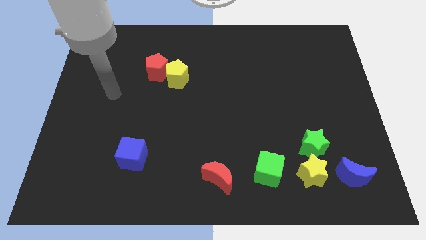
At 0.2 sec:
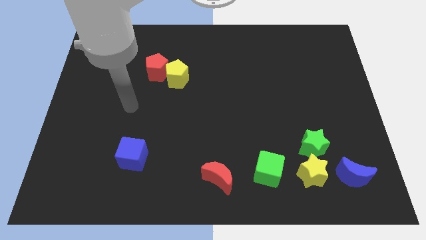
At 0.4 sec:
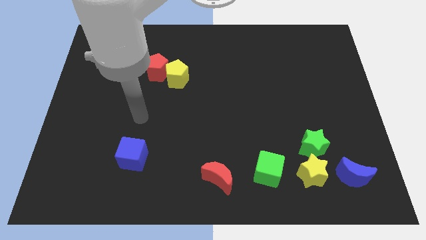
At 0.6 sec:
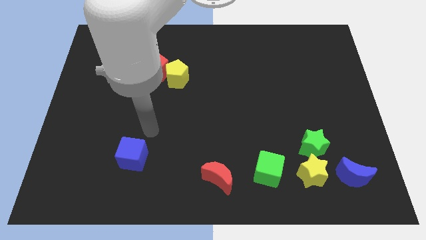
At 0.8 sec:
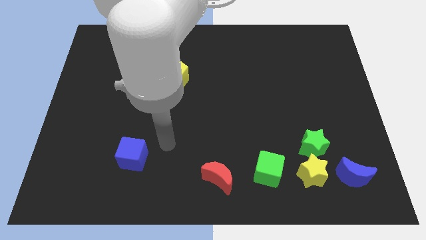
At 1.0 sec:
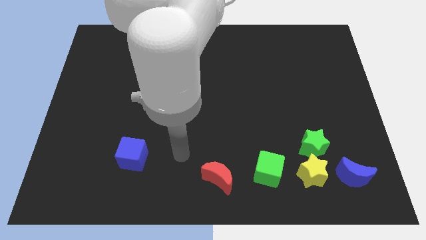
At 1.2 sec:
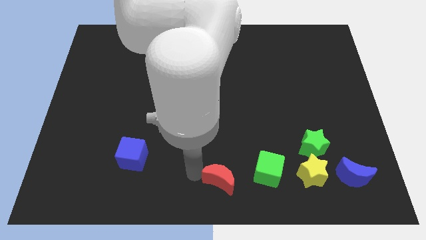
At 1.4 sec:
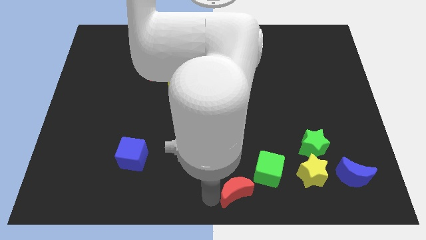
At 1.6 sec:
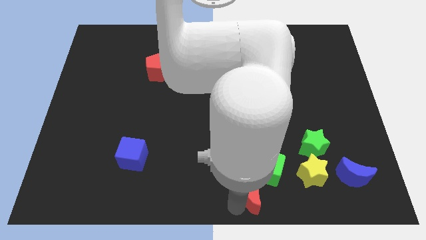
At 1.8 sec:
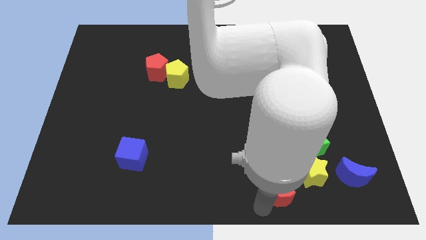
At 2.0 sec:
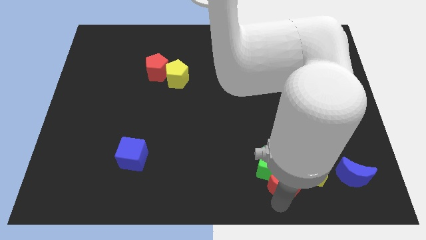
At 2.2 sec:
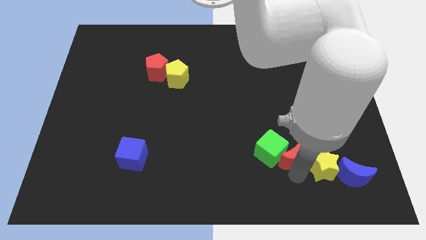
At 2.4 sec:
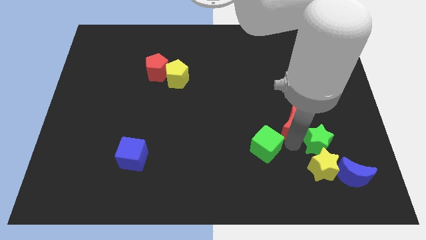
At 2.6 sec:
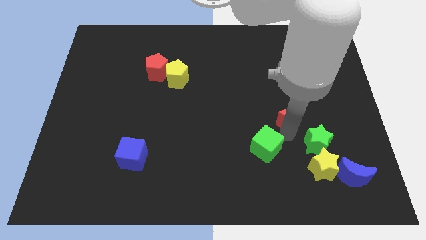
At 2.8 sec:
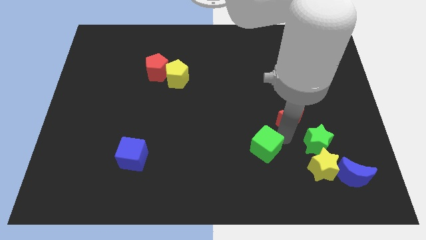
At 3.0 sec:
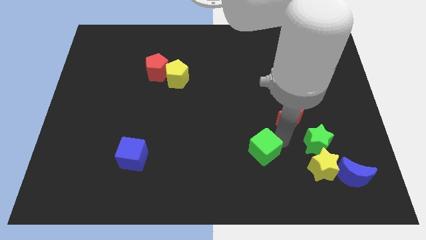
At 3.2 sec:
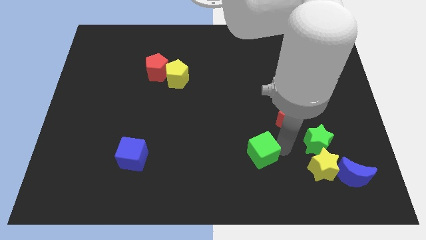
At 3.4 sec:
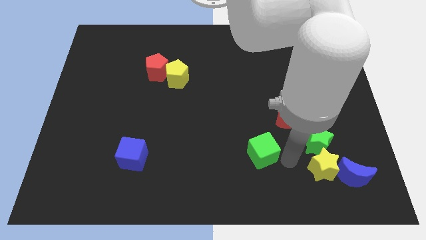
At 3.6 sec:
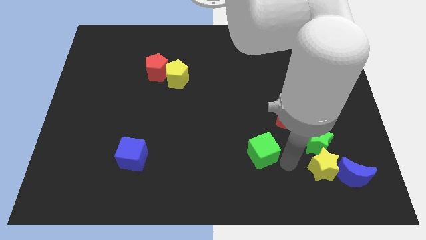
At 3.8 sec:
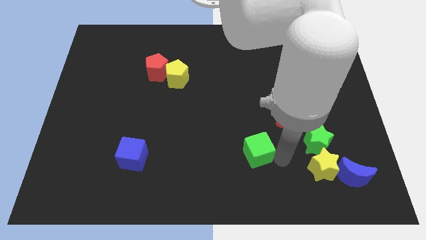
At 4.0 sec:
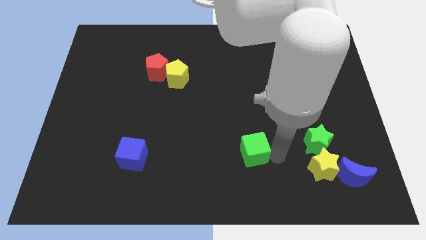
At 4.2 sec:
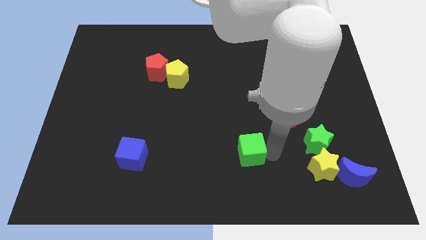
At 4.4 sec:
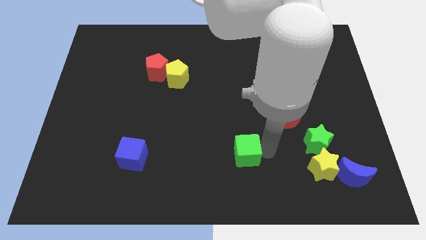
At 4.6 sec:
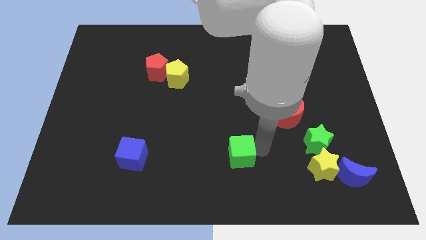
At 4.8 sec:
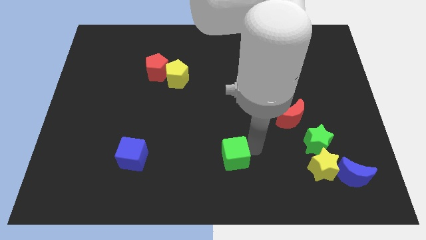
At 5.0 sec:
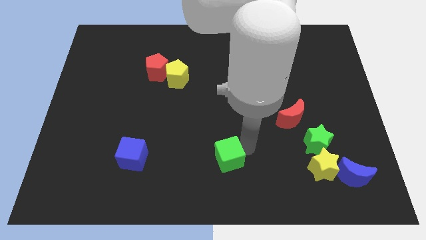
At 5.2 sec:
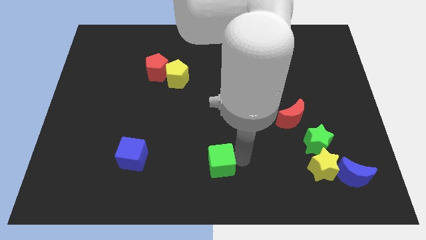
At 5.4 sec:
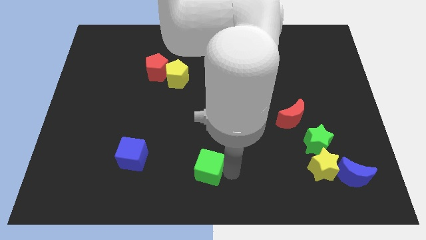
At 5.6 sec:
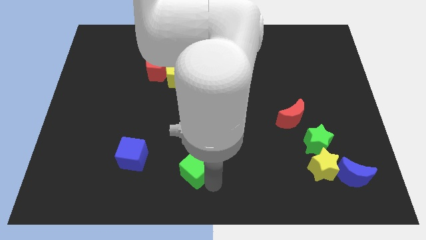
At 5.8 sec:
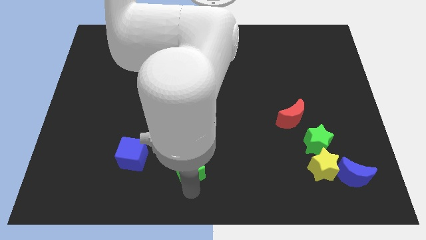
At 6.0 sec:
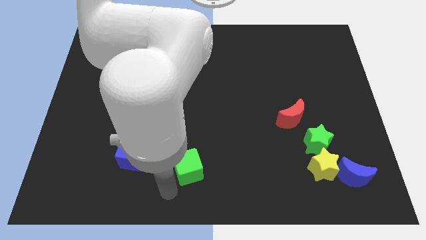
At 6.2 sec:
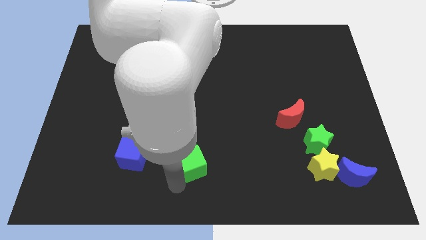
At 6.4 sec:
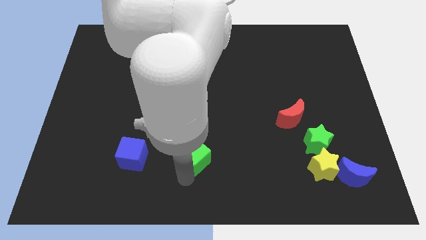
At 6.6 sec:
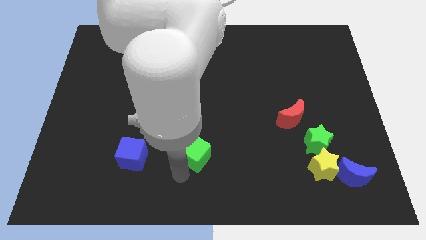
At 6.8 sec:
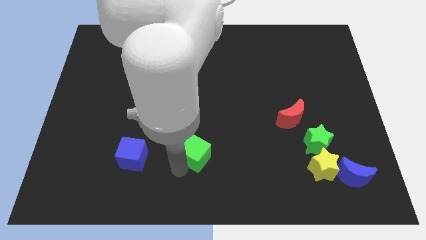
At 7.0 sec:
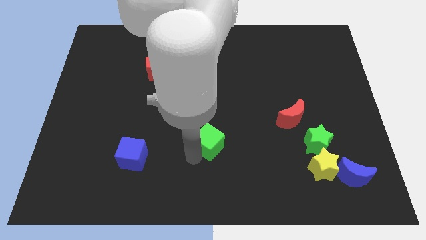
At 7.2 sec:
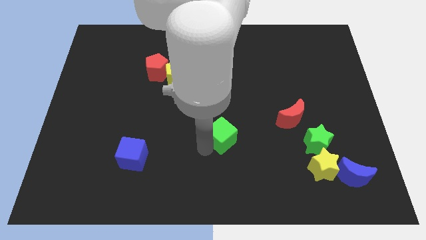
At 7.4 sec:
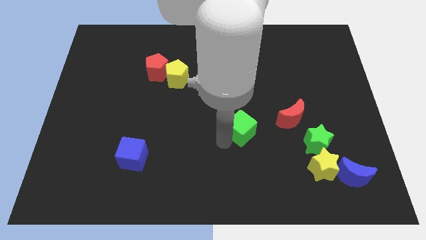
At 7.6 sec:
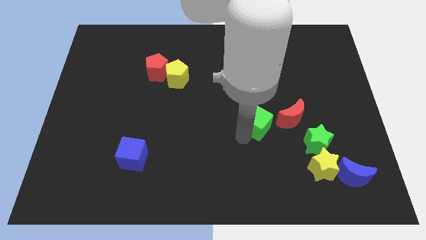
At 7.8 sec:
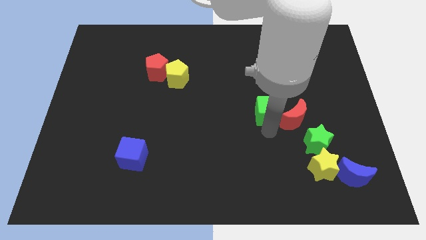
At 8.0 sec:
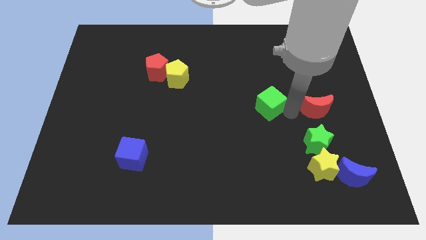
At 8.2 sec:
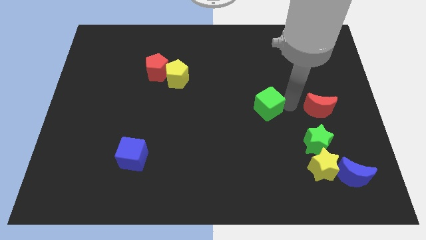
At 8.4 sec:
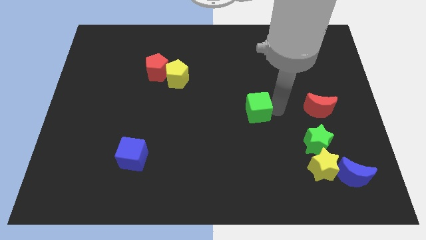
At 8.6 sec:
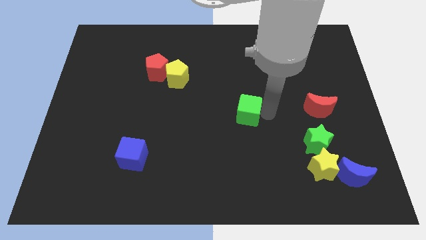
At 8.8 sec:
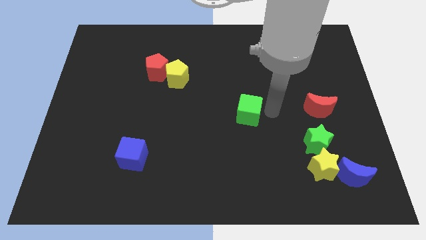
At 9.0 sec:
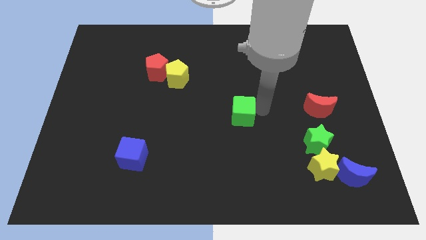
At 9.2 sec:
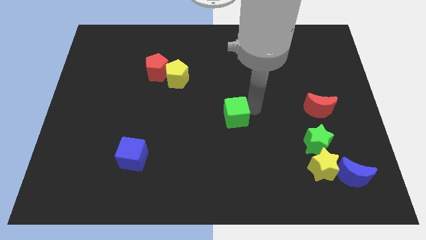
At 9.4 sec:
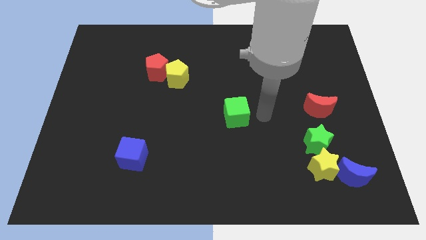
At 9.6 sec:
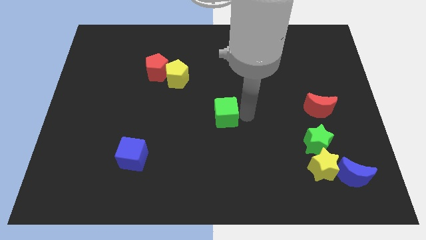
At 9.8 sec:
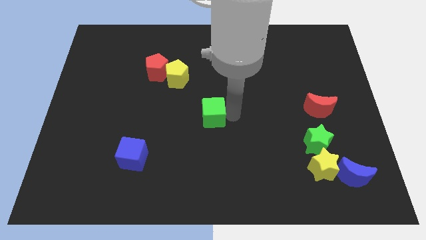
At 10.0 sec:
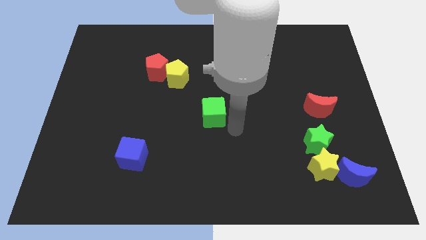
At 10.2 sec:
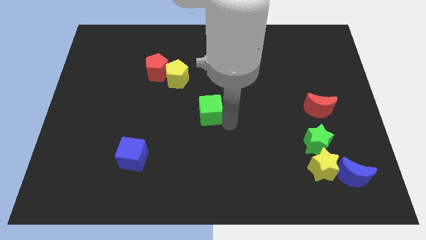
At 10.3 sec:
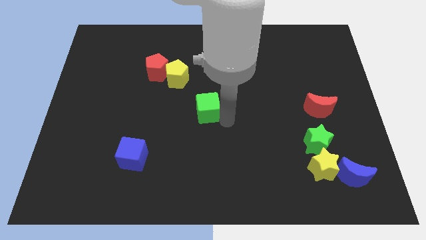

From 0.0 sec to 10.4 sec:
push the green cube up and left

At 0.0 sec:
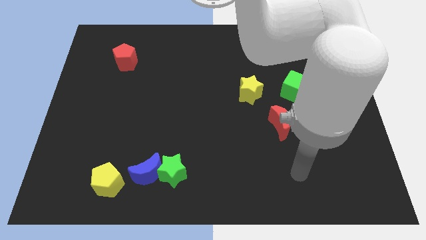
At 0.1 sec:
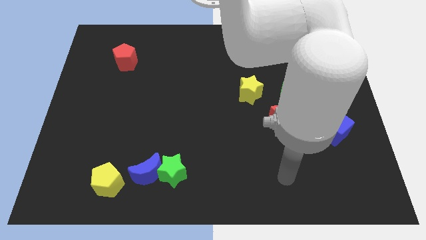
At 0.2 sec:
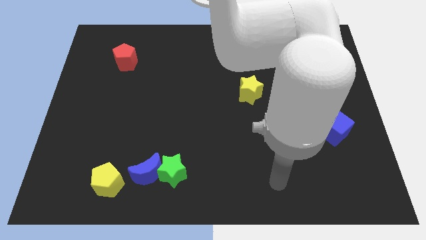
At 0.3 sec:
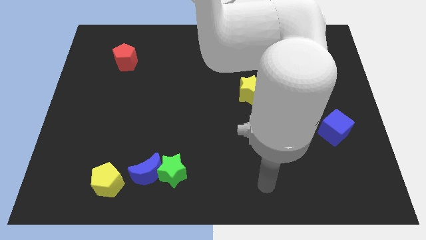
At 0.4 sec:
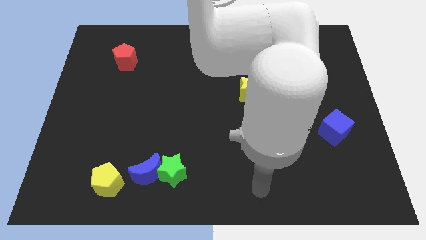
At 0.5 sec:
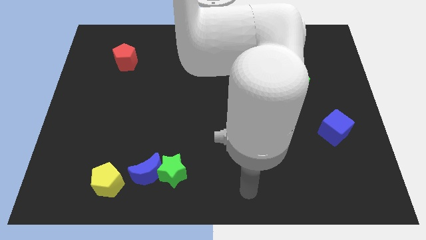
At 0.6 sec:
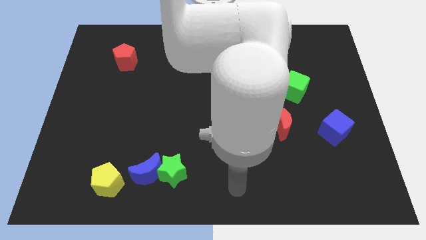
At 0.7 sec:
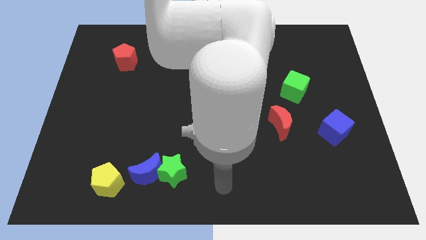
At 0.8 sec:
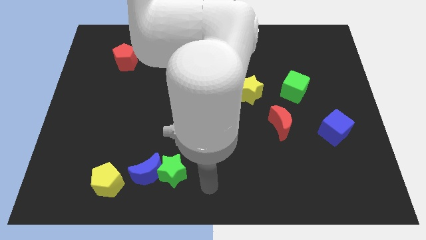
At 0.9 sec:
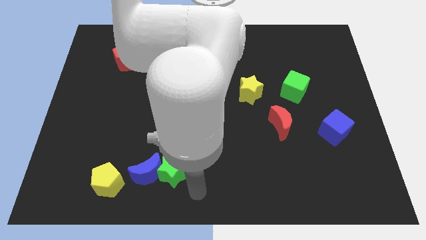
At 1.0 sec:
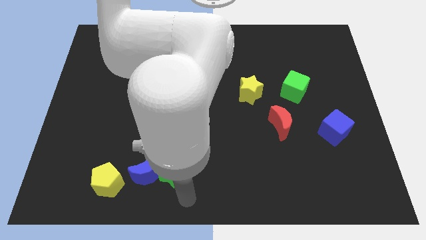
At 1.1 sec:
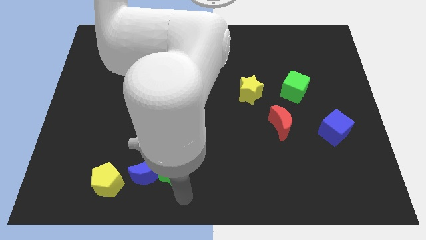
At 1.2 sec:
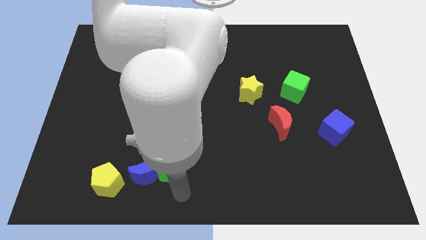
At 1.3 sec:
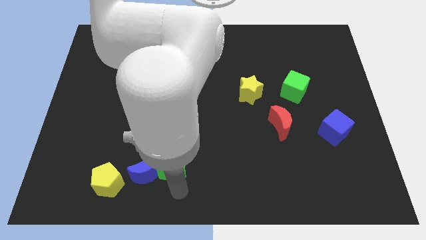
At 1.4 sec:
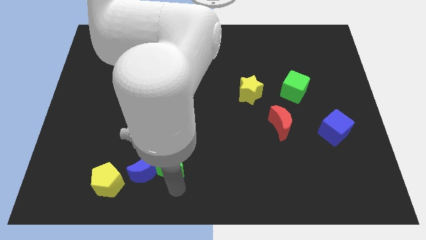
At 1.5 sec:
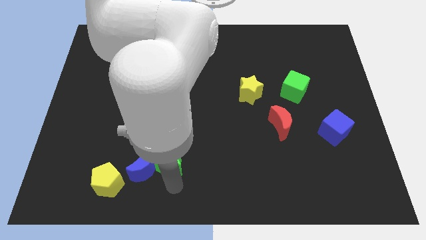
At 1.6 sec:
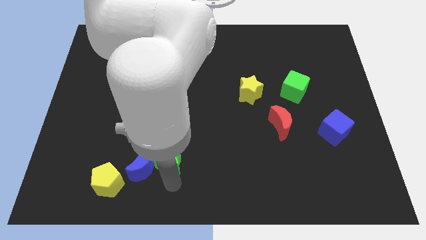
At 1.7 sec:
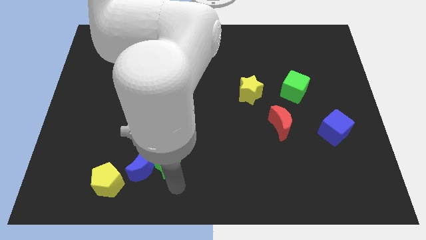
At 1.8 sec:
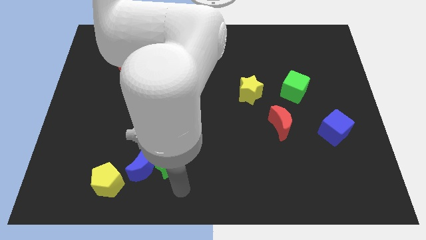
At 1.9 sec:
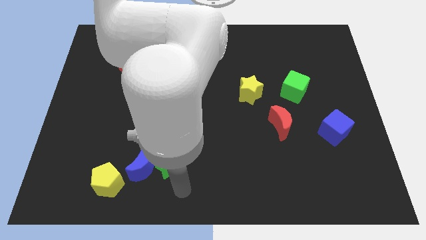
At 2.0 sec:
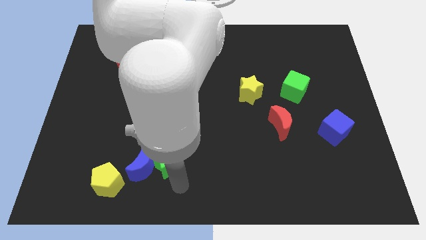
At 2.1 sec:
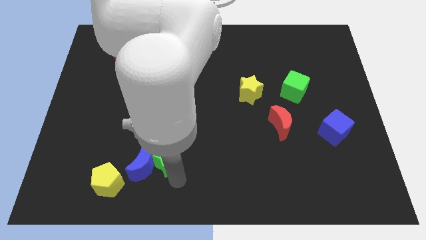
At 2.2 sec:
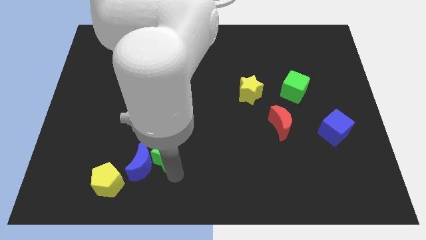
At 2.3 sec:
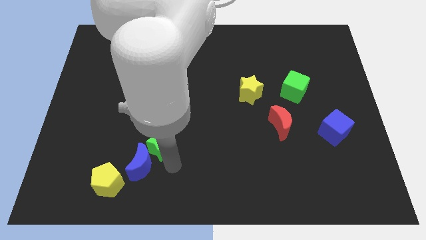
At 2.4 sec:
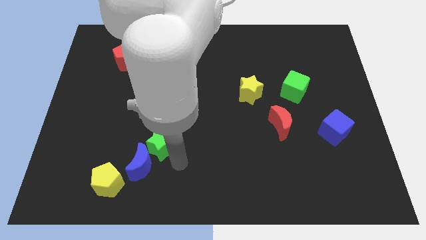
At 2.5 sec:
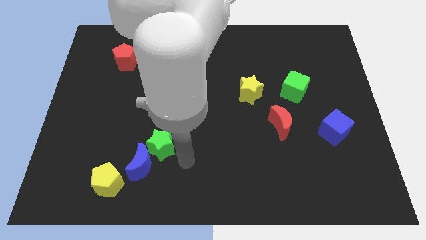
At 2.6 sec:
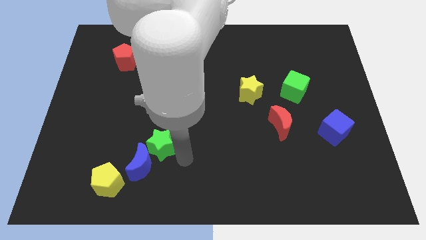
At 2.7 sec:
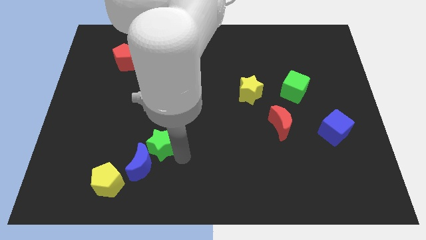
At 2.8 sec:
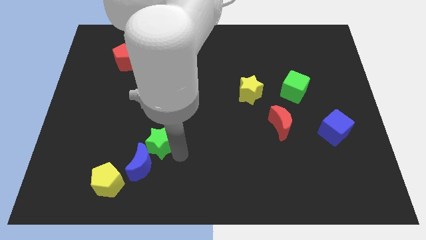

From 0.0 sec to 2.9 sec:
push the green star up and to the left slightly
